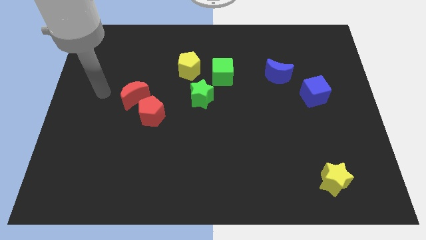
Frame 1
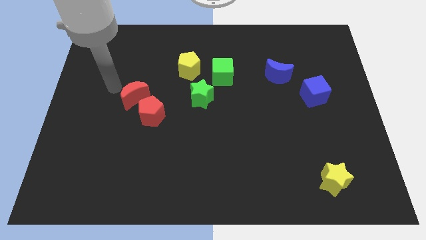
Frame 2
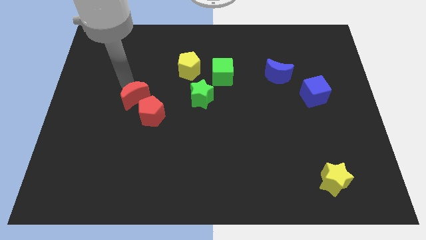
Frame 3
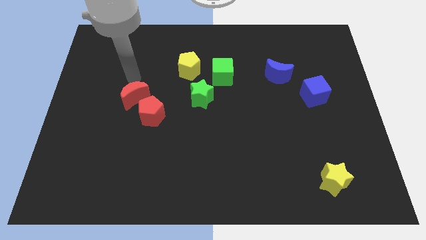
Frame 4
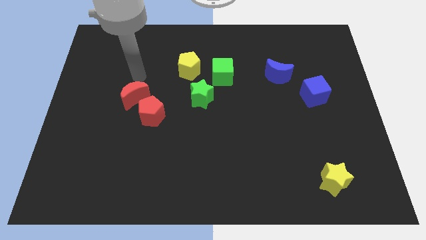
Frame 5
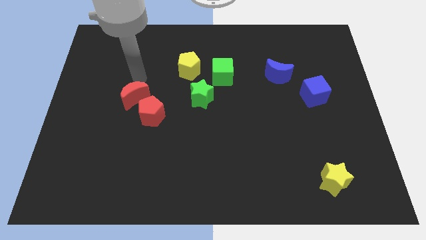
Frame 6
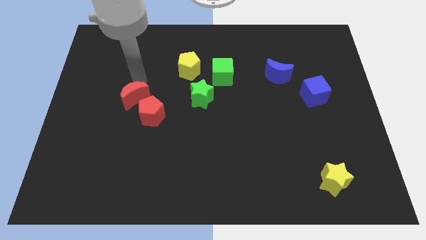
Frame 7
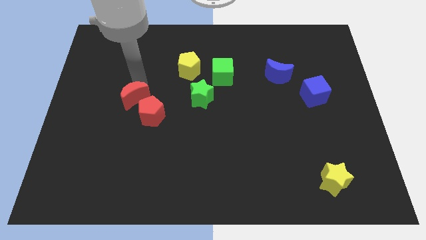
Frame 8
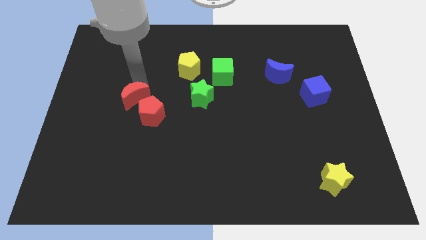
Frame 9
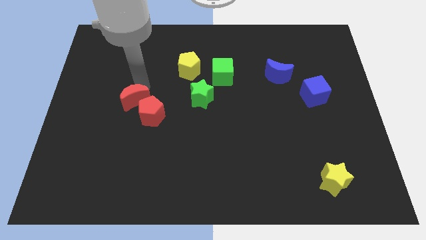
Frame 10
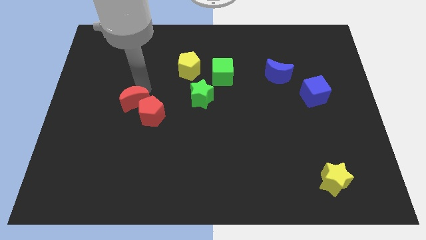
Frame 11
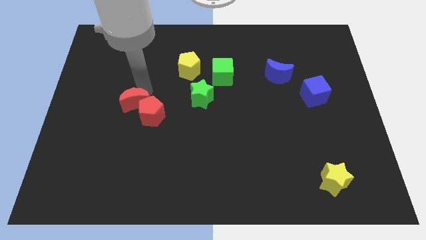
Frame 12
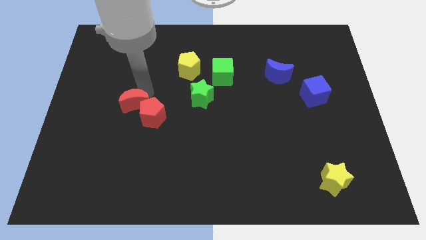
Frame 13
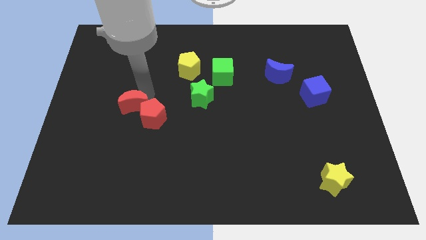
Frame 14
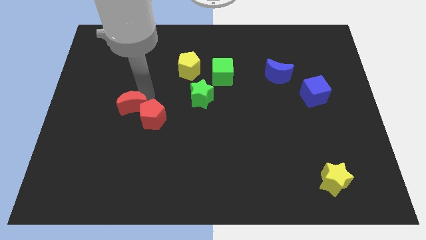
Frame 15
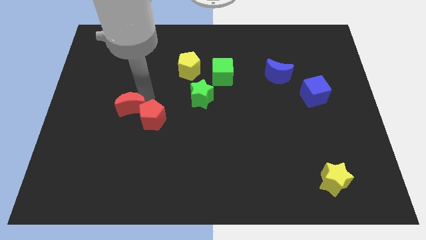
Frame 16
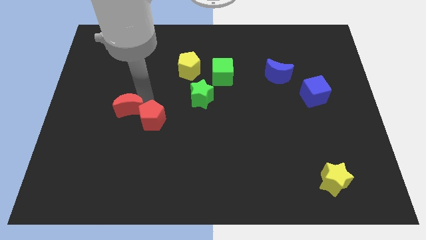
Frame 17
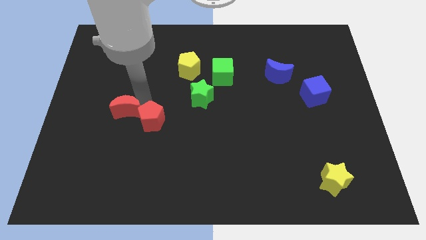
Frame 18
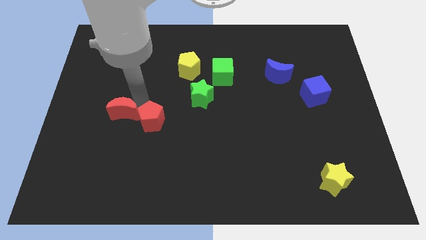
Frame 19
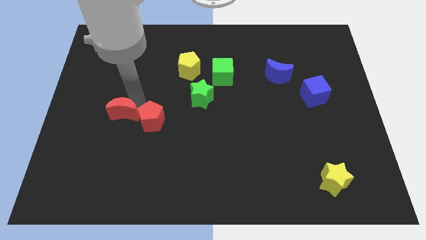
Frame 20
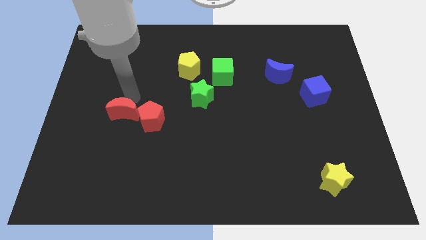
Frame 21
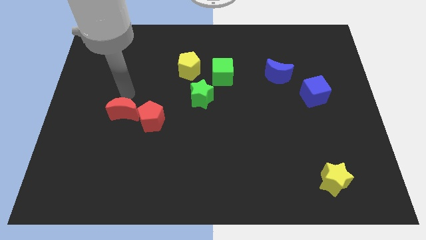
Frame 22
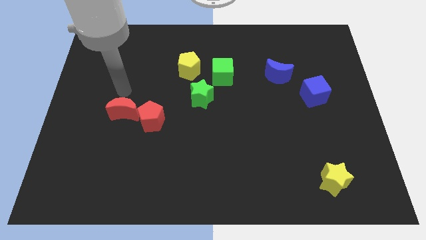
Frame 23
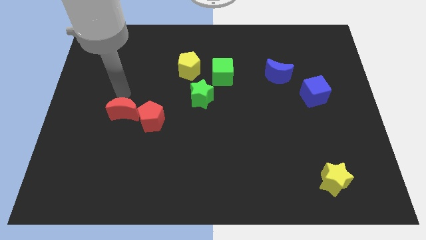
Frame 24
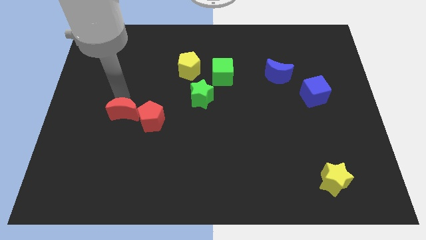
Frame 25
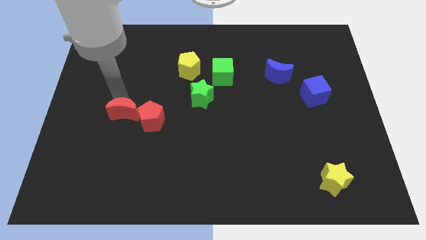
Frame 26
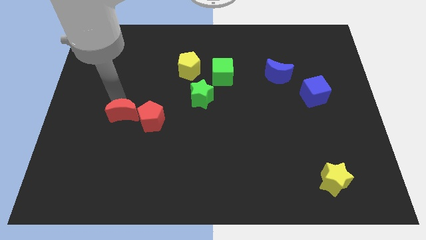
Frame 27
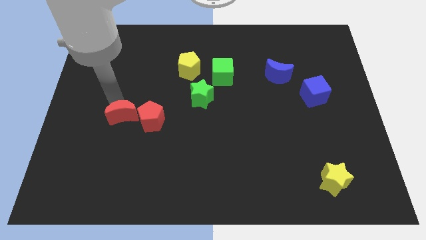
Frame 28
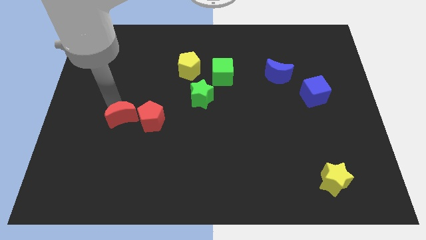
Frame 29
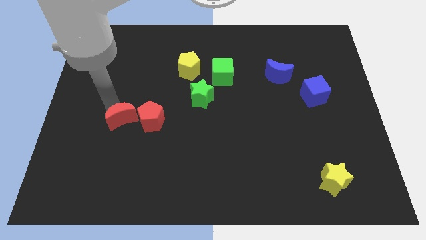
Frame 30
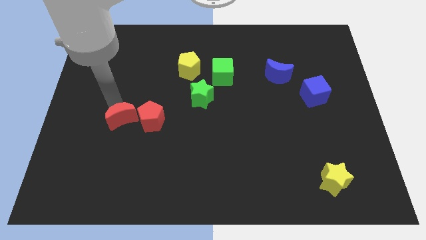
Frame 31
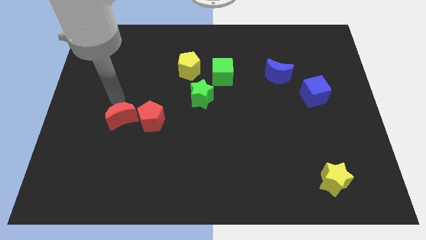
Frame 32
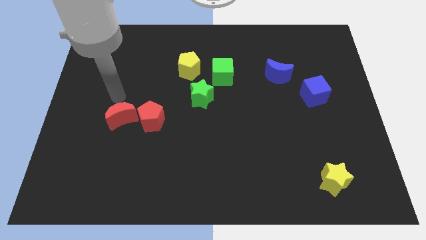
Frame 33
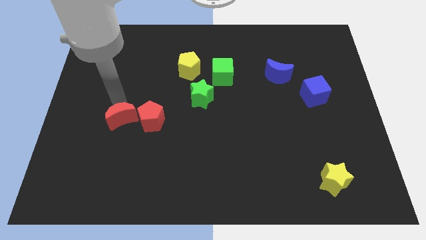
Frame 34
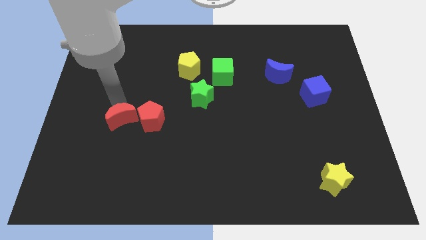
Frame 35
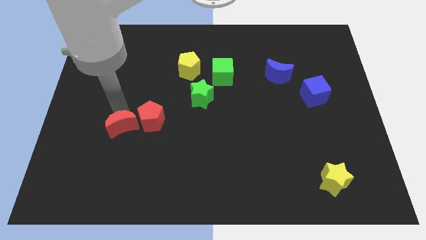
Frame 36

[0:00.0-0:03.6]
slide the red moon a little bit down

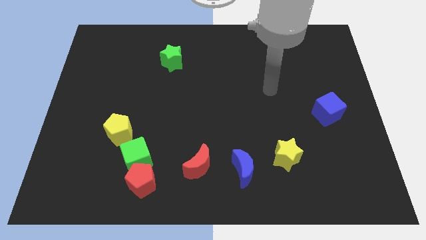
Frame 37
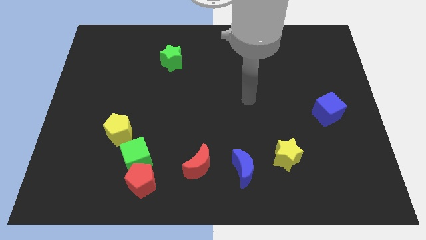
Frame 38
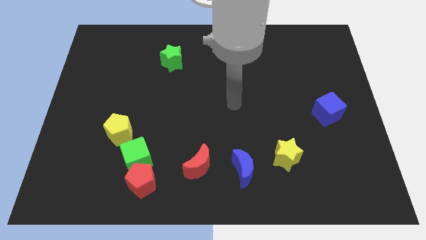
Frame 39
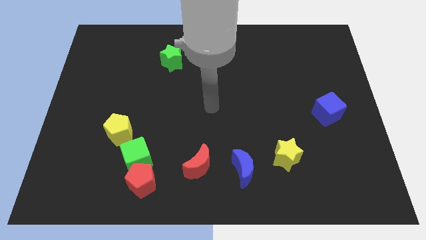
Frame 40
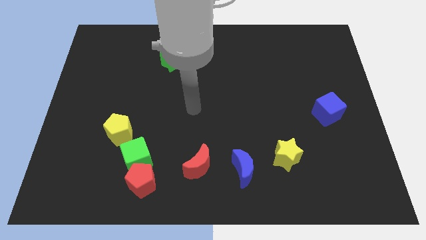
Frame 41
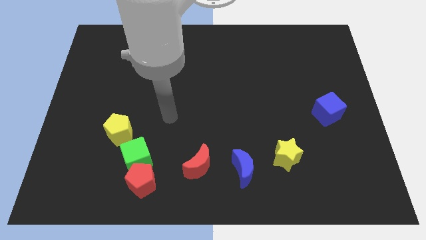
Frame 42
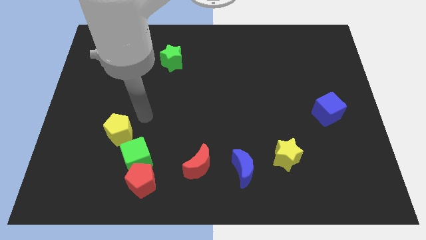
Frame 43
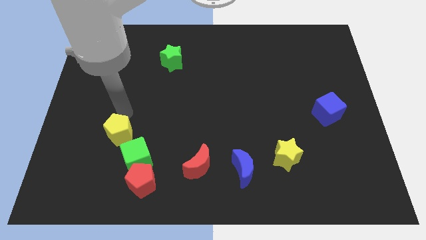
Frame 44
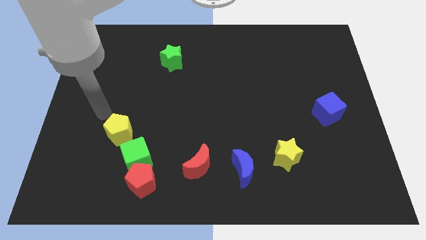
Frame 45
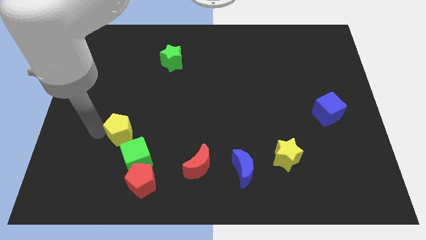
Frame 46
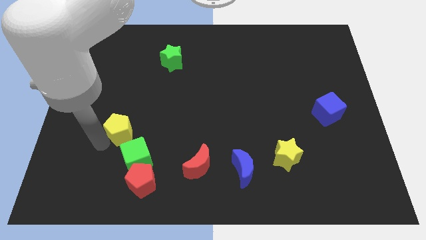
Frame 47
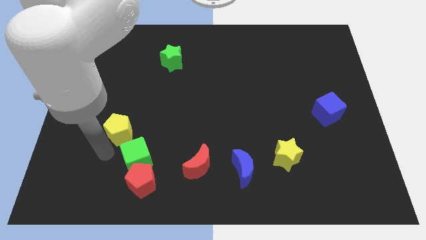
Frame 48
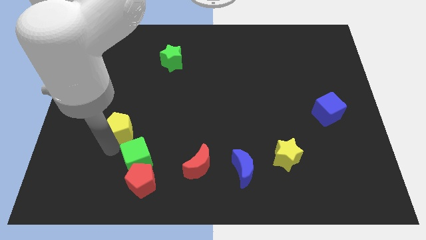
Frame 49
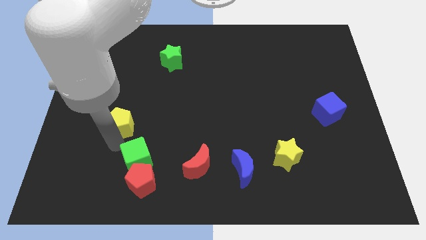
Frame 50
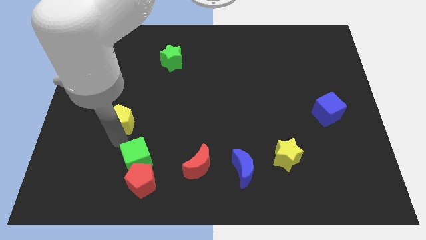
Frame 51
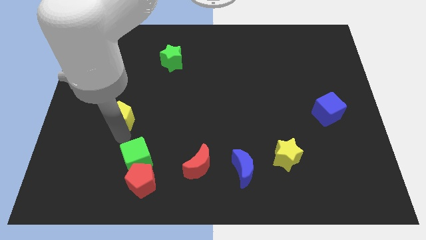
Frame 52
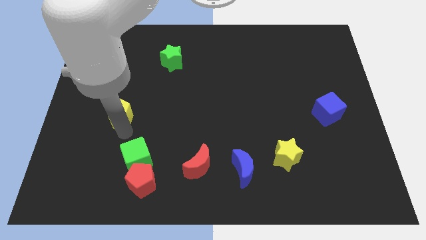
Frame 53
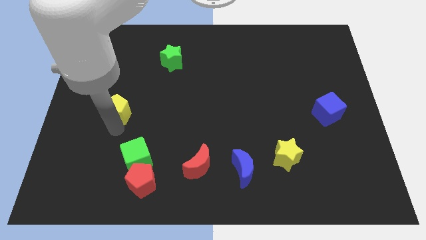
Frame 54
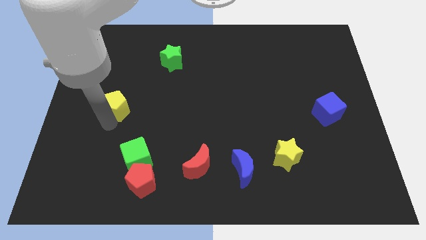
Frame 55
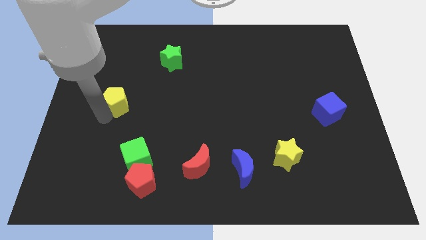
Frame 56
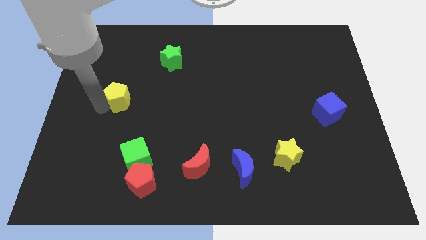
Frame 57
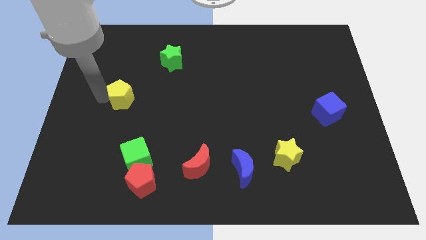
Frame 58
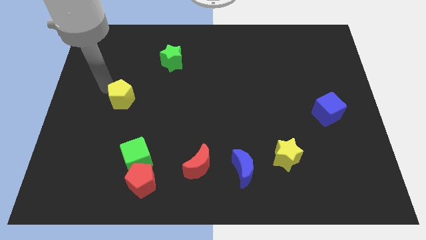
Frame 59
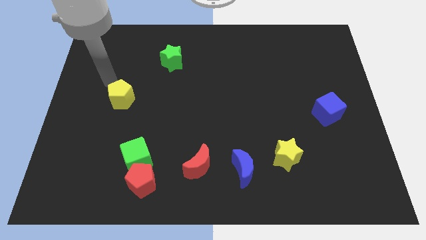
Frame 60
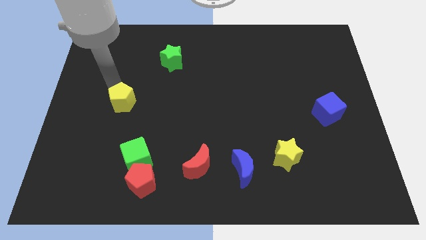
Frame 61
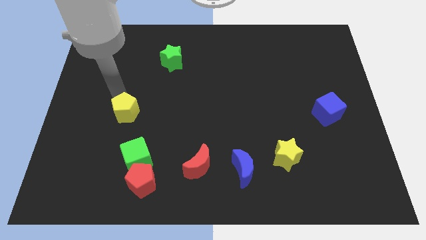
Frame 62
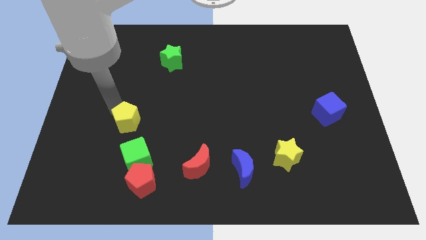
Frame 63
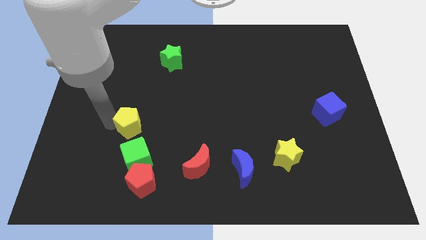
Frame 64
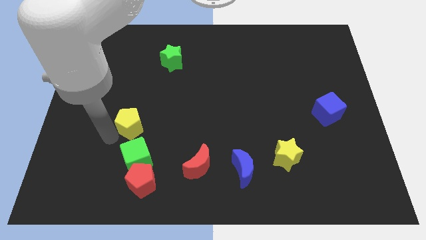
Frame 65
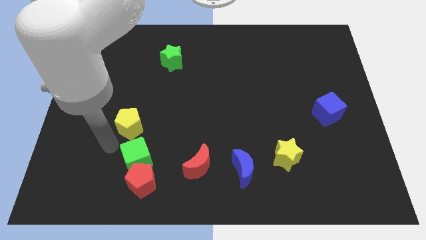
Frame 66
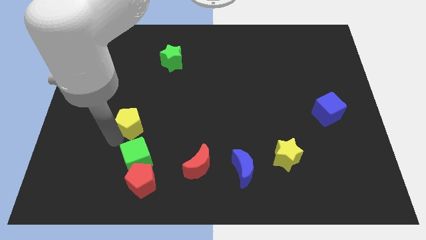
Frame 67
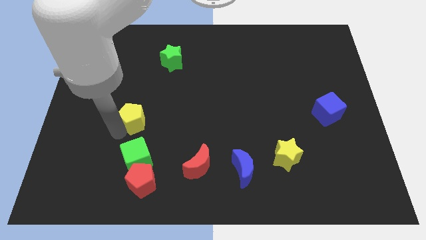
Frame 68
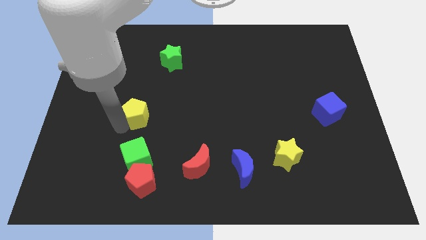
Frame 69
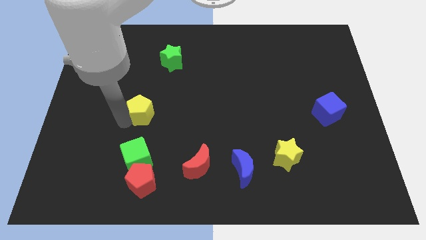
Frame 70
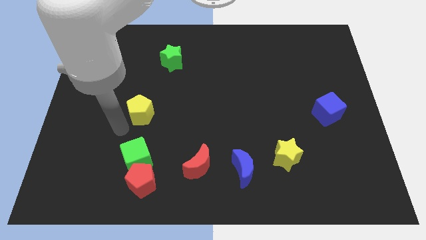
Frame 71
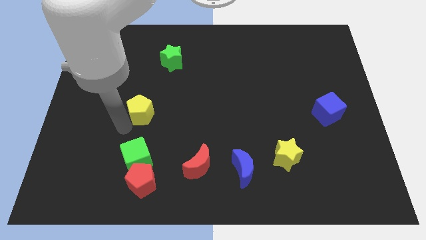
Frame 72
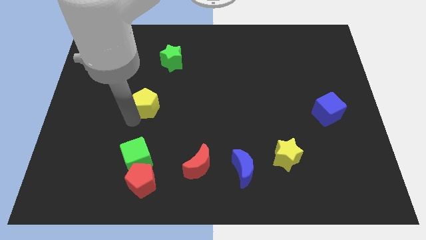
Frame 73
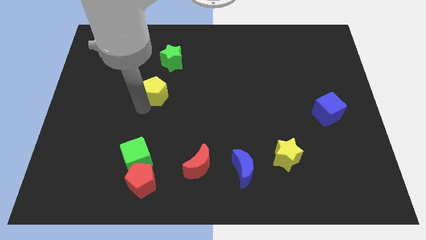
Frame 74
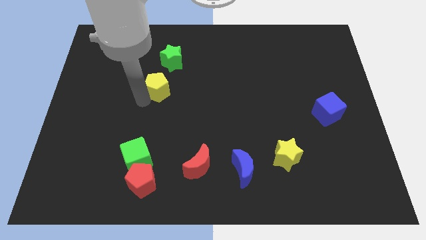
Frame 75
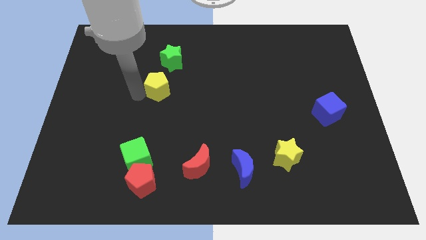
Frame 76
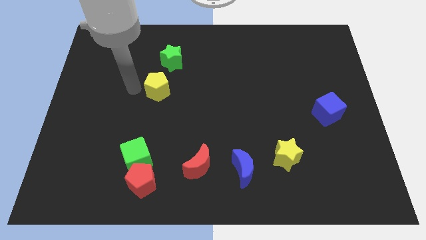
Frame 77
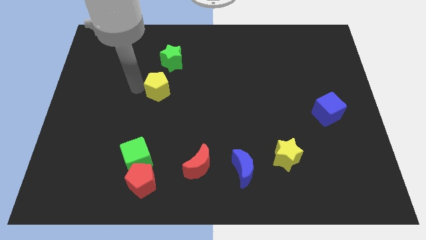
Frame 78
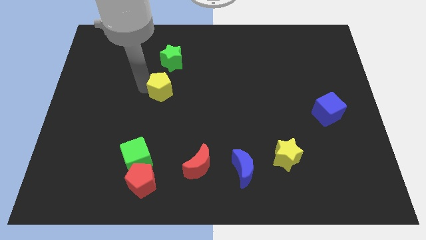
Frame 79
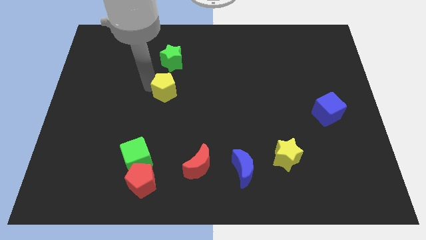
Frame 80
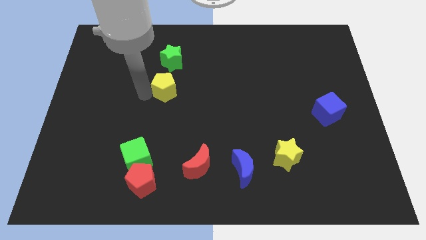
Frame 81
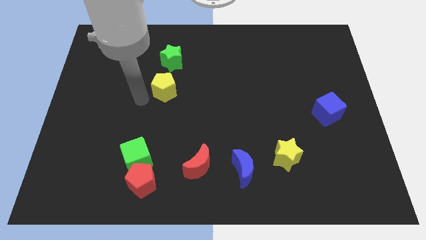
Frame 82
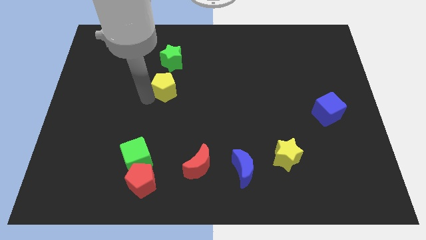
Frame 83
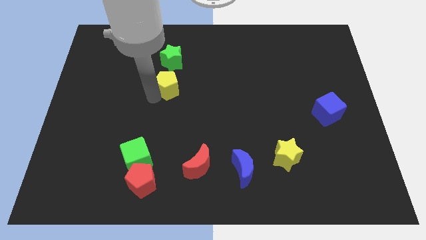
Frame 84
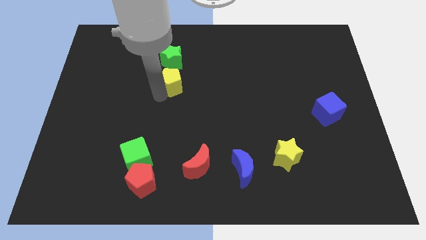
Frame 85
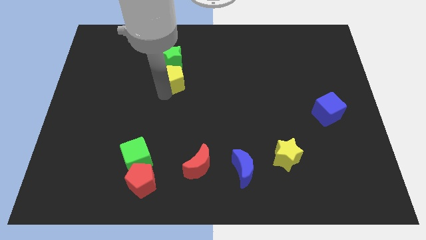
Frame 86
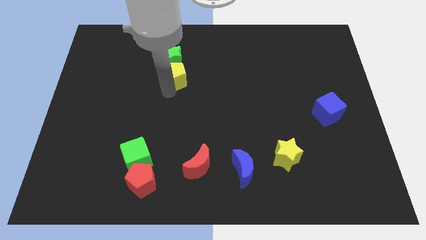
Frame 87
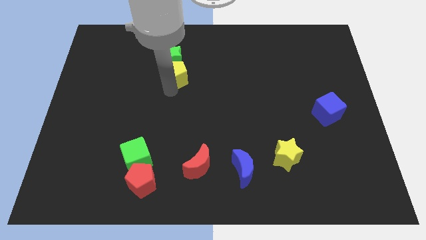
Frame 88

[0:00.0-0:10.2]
move the yellow pentagon upwards and to the right diagonally
